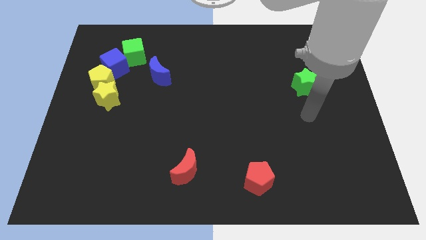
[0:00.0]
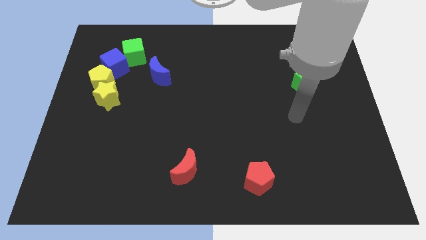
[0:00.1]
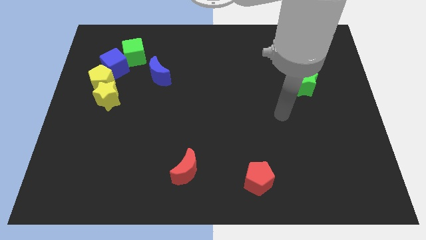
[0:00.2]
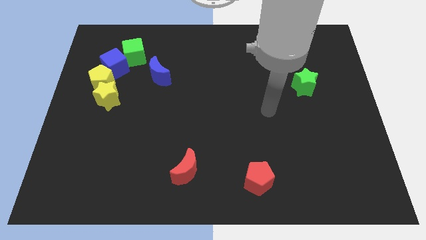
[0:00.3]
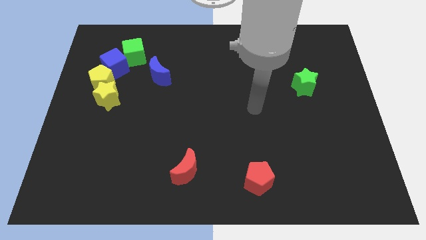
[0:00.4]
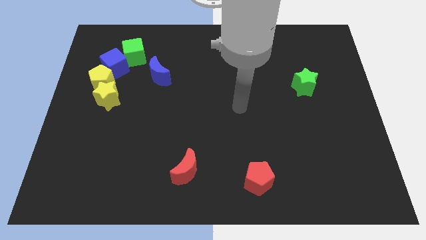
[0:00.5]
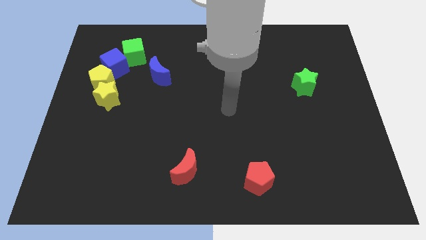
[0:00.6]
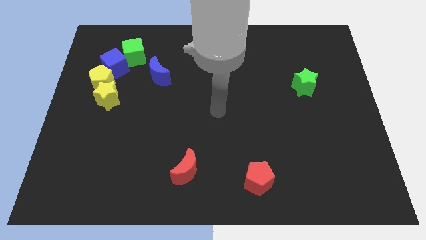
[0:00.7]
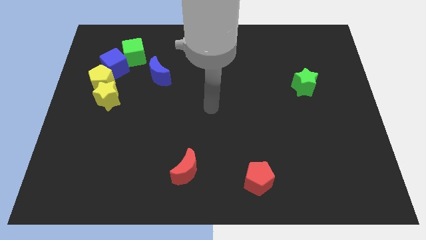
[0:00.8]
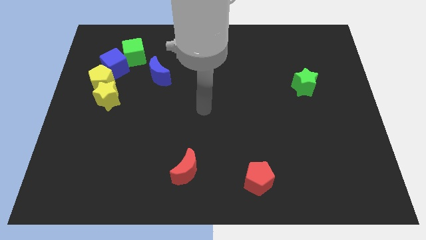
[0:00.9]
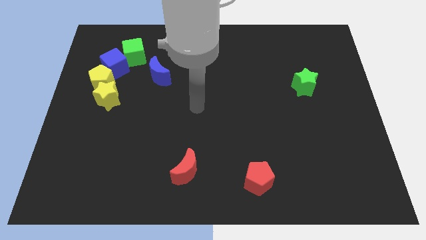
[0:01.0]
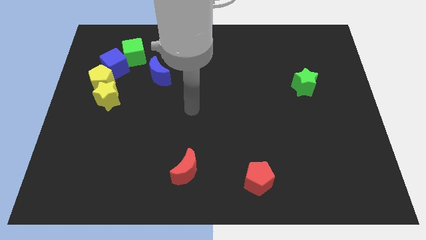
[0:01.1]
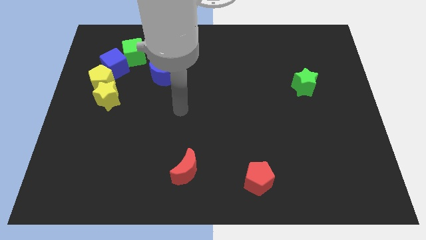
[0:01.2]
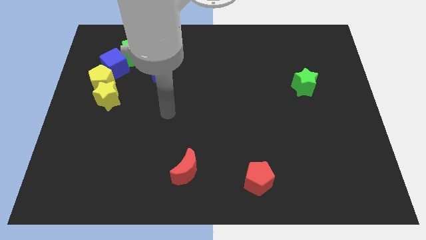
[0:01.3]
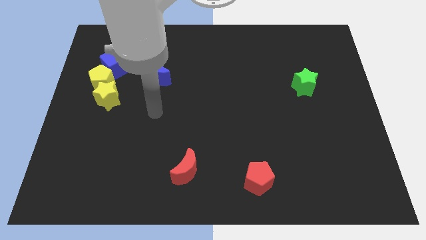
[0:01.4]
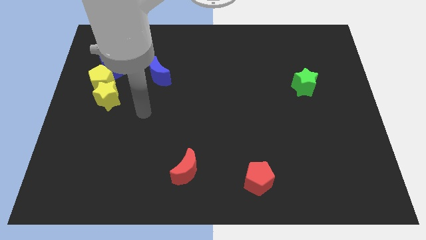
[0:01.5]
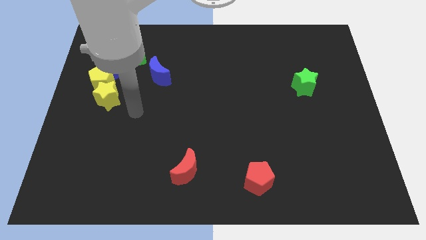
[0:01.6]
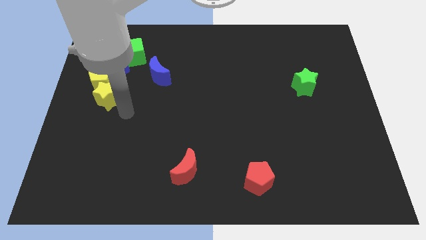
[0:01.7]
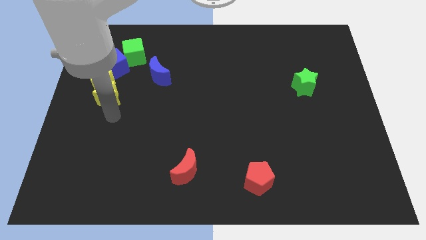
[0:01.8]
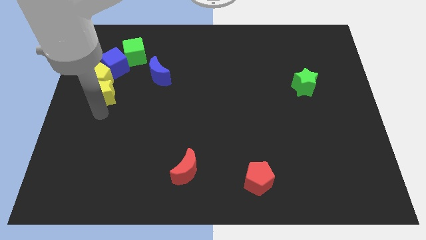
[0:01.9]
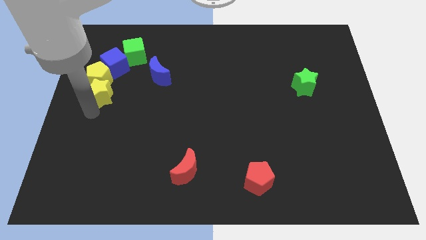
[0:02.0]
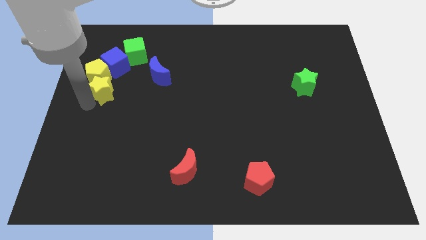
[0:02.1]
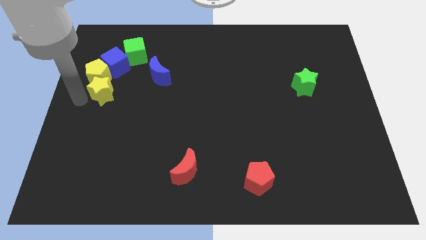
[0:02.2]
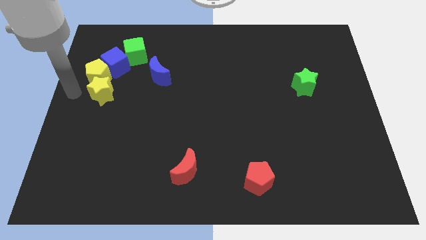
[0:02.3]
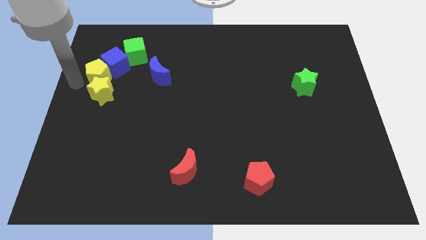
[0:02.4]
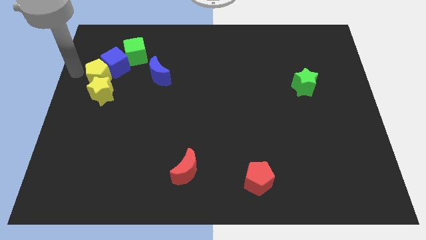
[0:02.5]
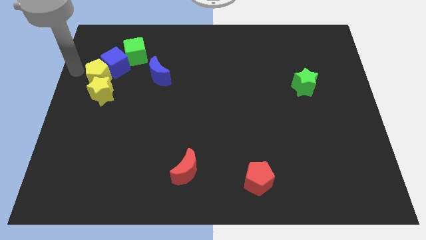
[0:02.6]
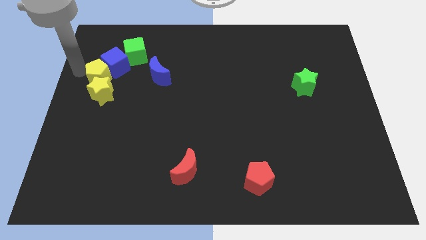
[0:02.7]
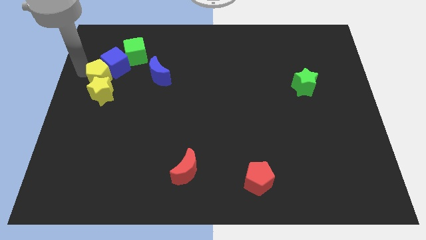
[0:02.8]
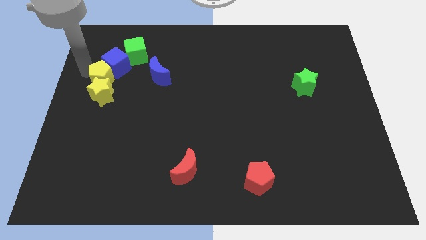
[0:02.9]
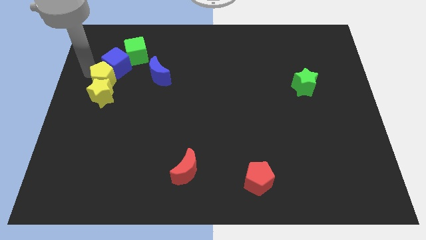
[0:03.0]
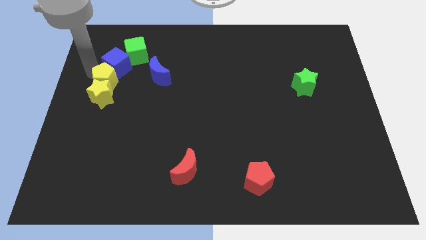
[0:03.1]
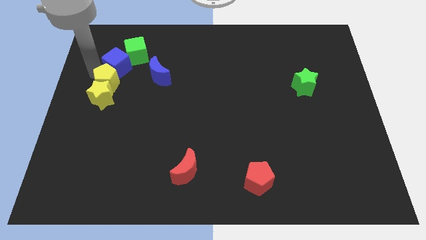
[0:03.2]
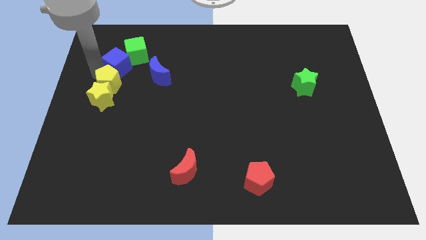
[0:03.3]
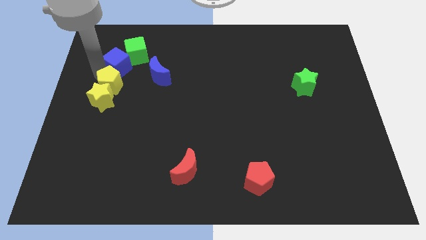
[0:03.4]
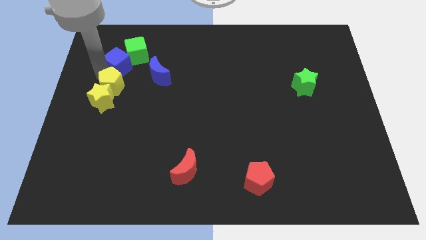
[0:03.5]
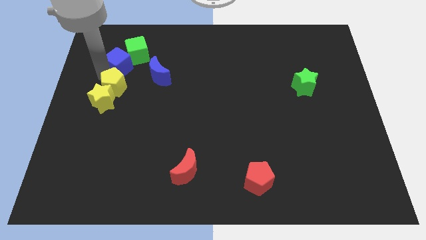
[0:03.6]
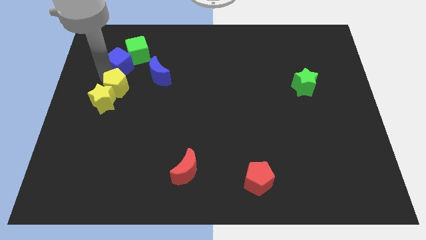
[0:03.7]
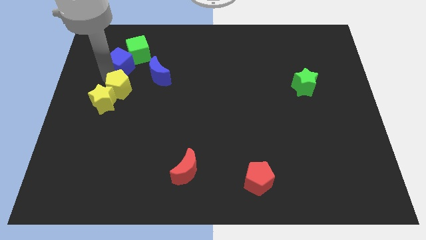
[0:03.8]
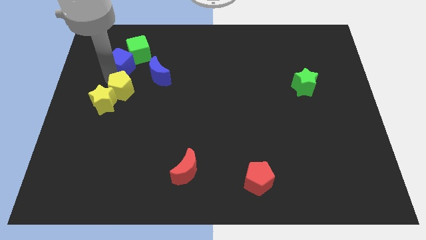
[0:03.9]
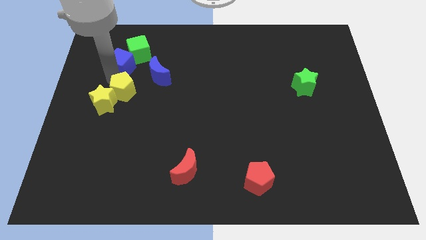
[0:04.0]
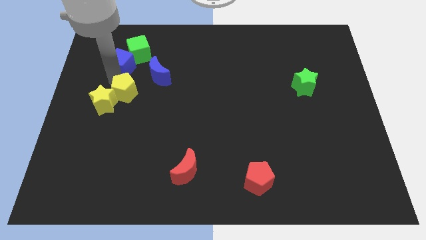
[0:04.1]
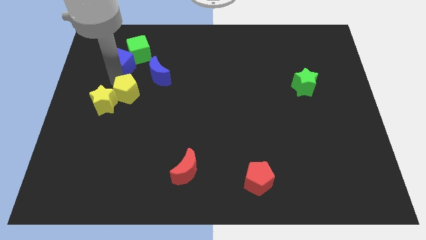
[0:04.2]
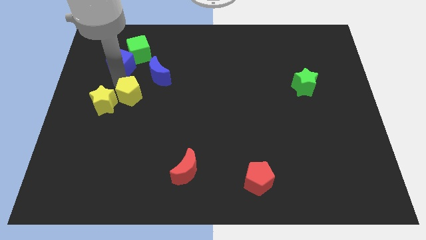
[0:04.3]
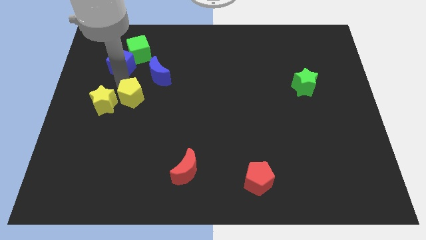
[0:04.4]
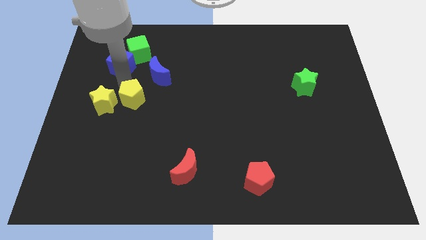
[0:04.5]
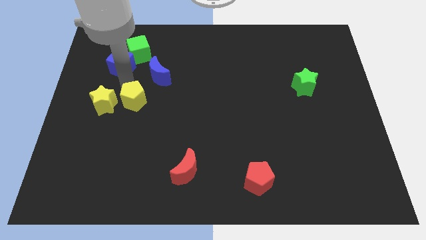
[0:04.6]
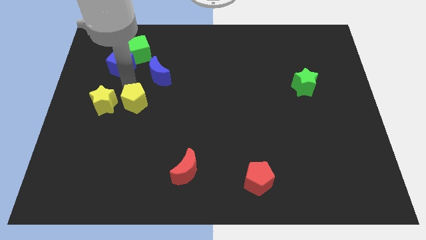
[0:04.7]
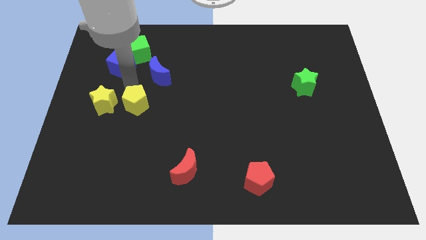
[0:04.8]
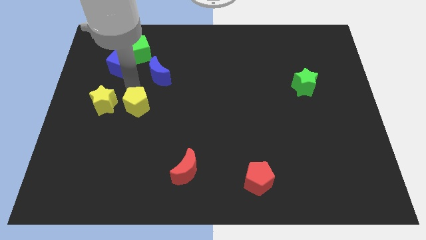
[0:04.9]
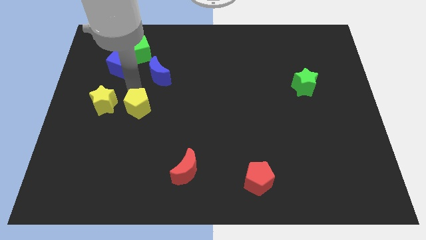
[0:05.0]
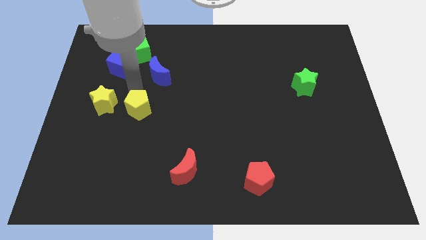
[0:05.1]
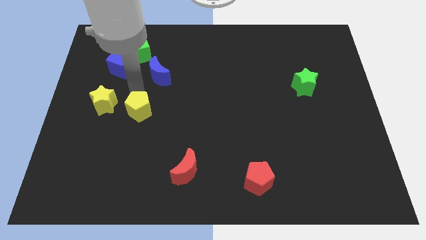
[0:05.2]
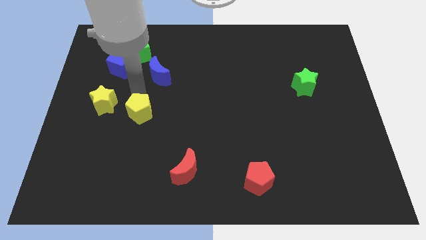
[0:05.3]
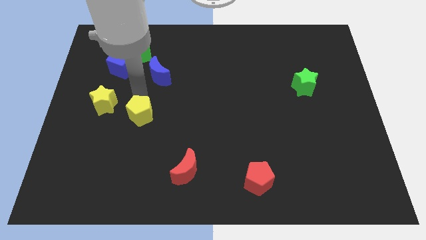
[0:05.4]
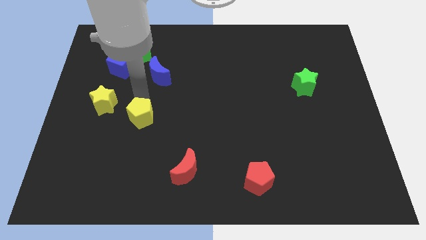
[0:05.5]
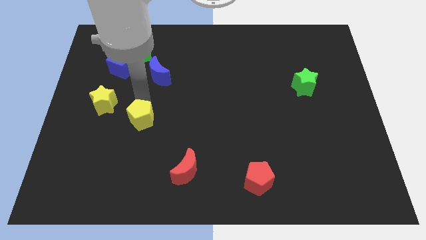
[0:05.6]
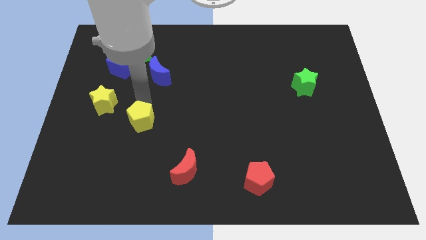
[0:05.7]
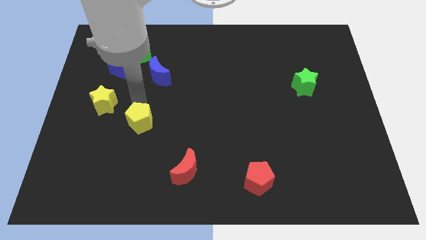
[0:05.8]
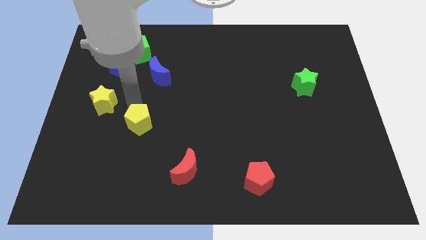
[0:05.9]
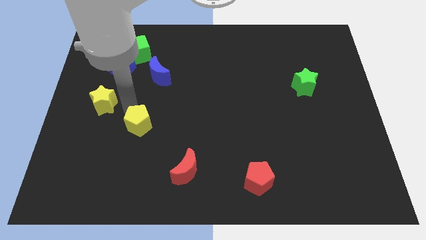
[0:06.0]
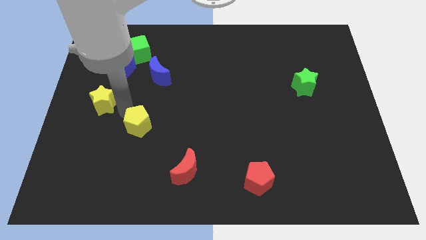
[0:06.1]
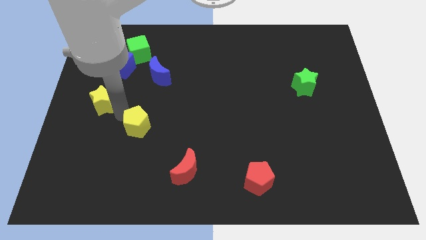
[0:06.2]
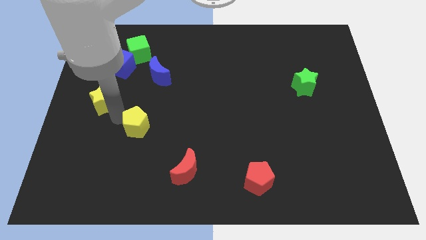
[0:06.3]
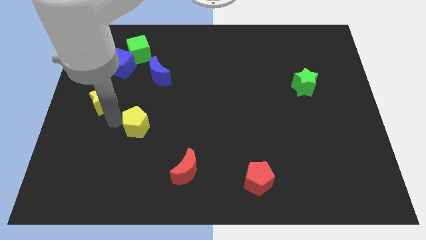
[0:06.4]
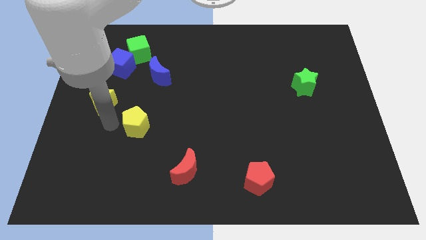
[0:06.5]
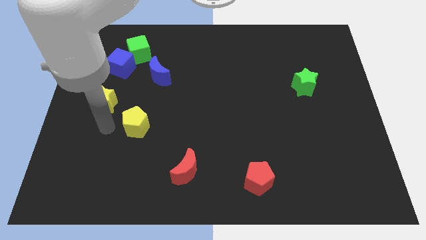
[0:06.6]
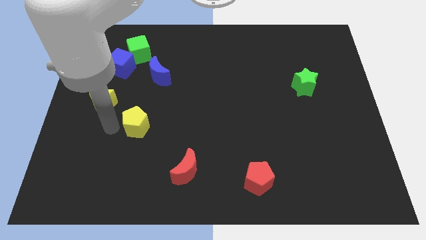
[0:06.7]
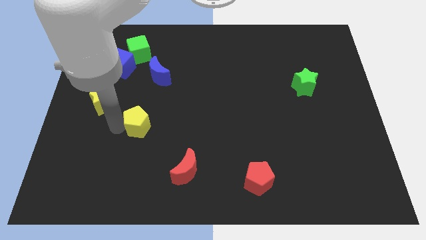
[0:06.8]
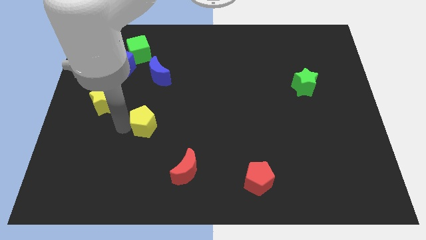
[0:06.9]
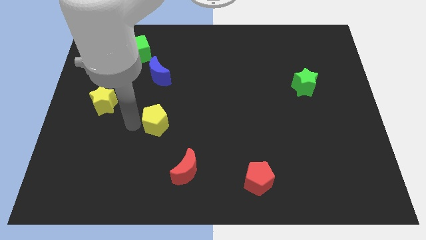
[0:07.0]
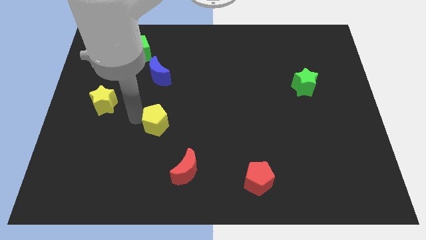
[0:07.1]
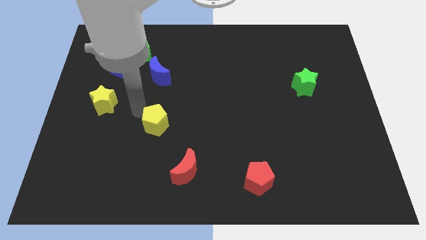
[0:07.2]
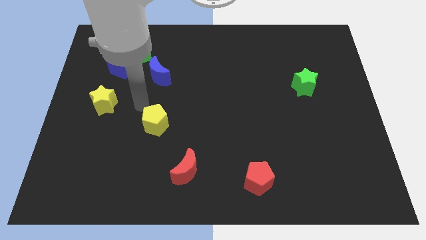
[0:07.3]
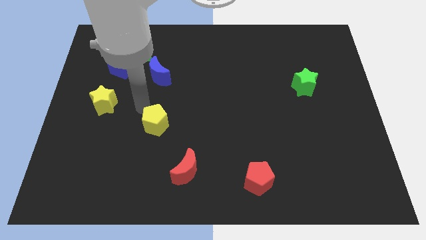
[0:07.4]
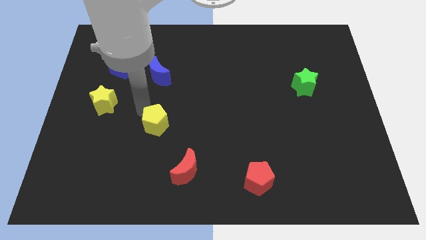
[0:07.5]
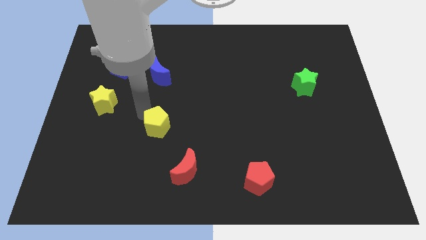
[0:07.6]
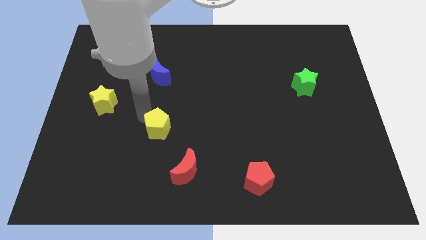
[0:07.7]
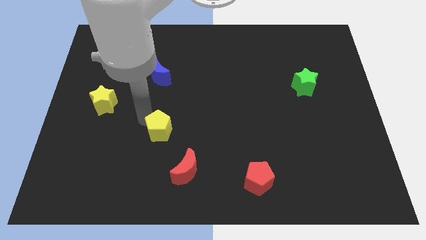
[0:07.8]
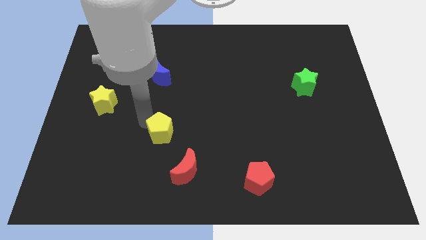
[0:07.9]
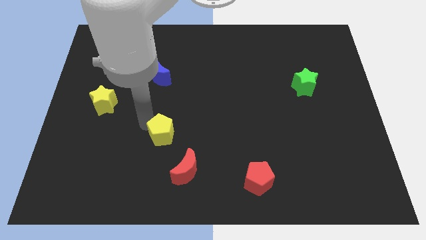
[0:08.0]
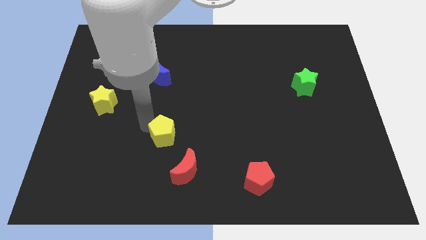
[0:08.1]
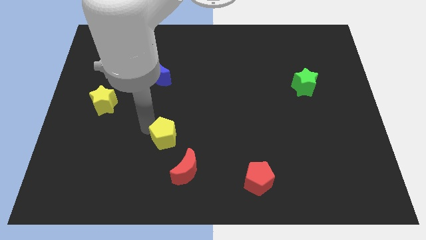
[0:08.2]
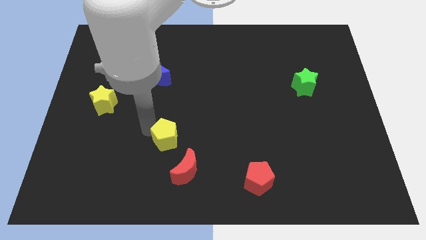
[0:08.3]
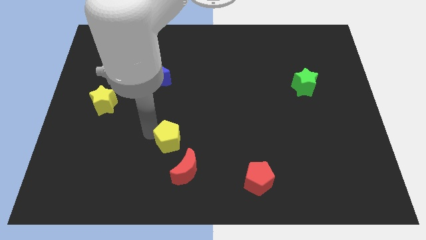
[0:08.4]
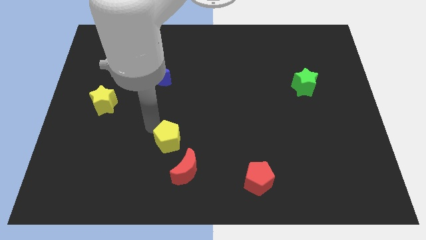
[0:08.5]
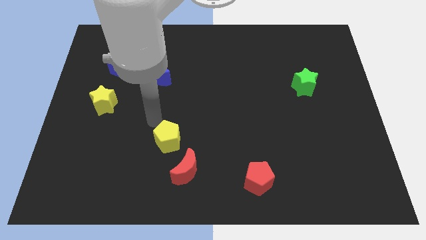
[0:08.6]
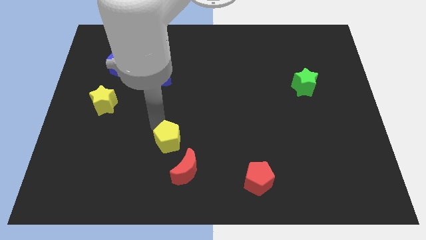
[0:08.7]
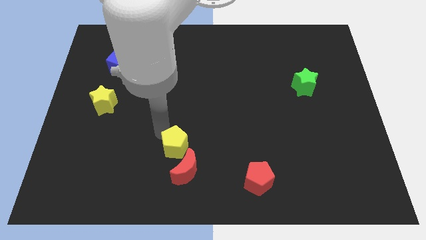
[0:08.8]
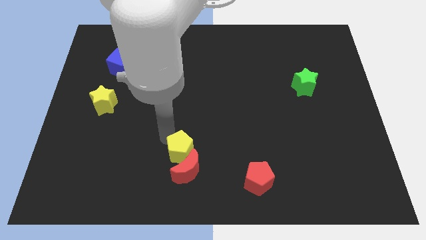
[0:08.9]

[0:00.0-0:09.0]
put the yellow pentagon next to the red moon
